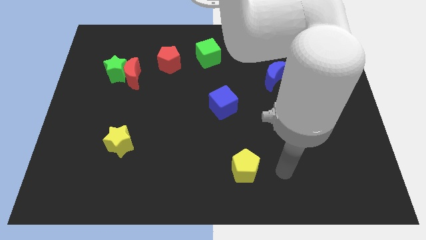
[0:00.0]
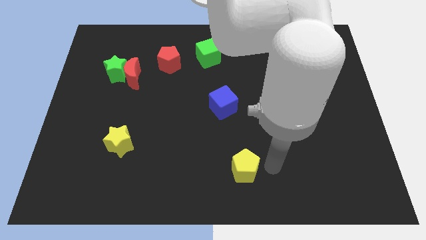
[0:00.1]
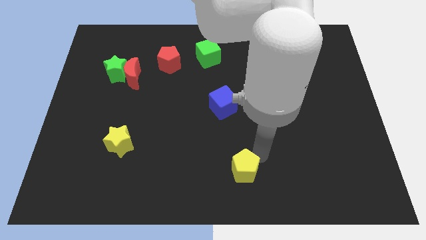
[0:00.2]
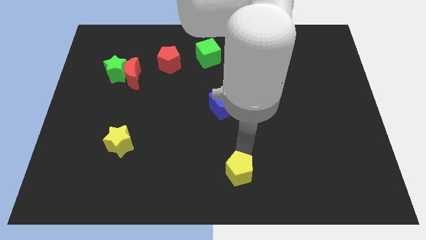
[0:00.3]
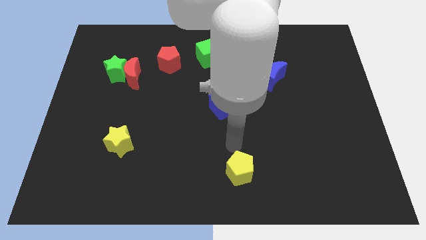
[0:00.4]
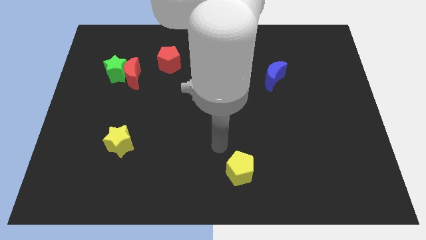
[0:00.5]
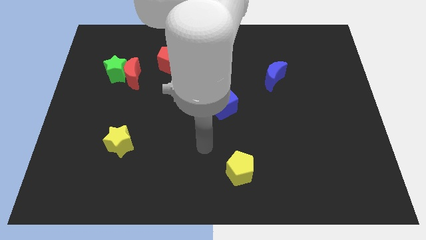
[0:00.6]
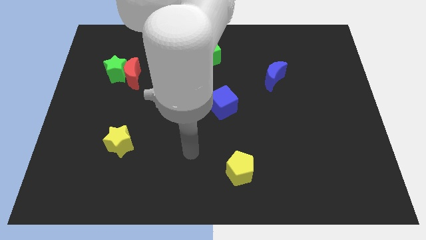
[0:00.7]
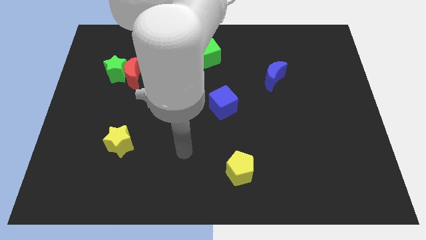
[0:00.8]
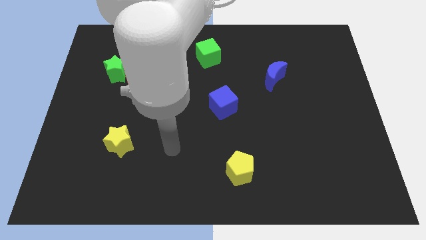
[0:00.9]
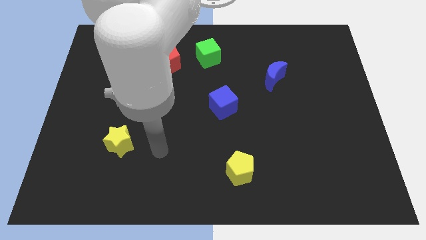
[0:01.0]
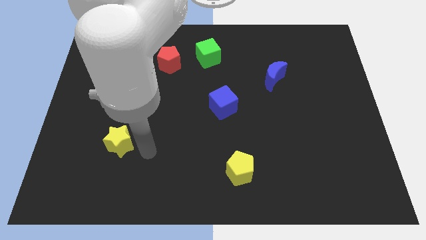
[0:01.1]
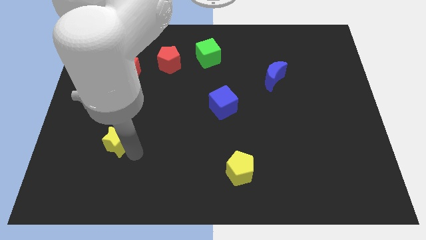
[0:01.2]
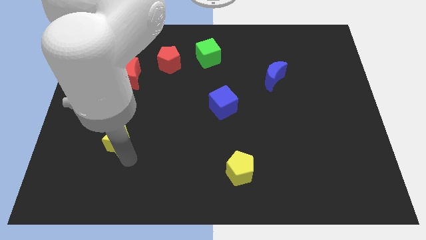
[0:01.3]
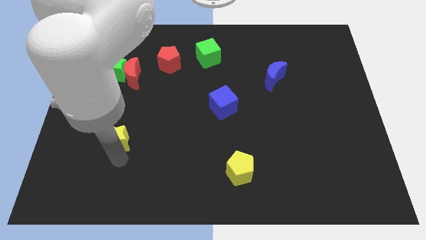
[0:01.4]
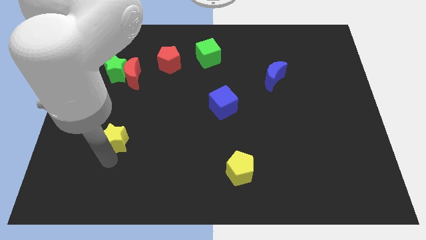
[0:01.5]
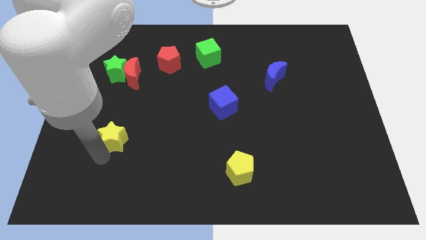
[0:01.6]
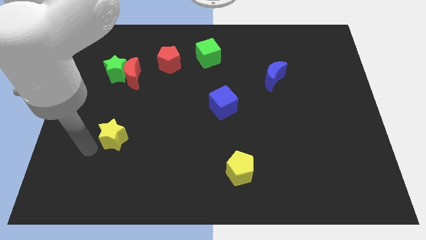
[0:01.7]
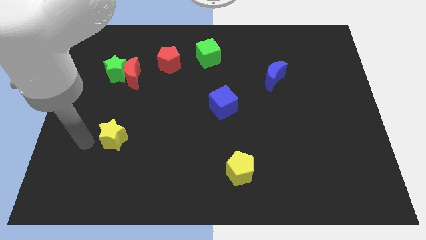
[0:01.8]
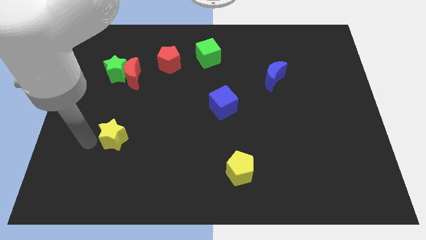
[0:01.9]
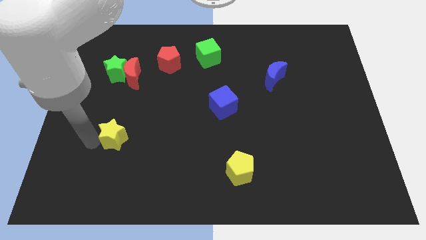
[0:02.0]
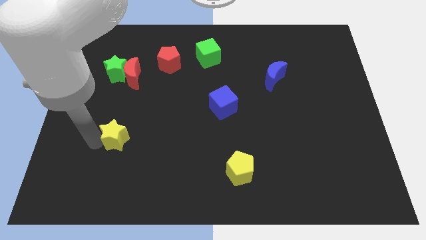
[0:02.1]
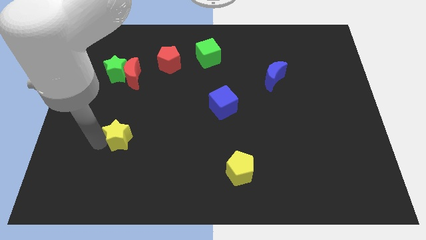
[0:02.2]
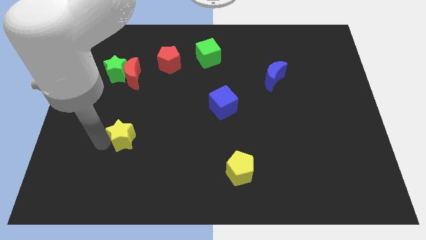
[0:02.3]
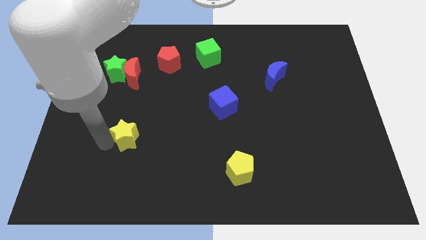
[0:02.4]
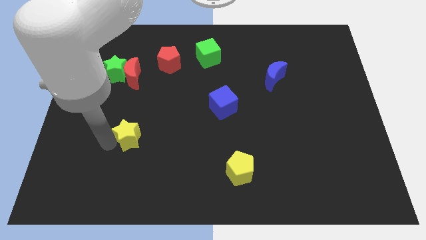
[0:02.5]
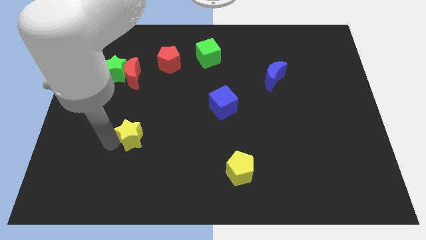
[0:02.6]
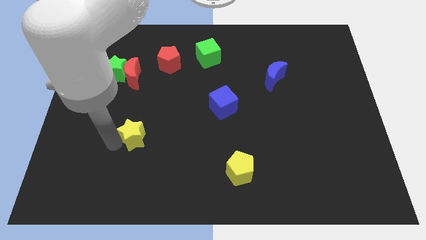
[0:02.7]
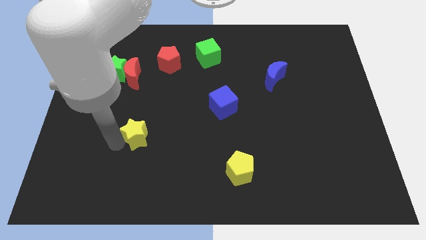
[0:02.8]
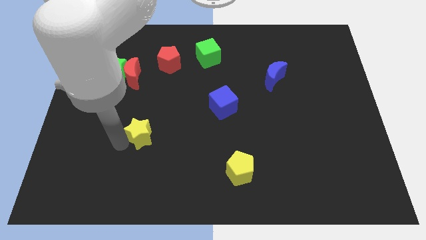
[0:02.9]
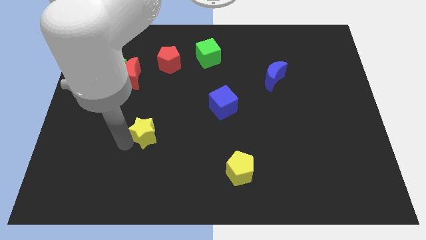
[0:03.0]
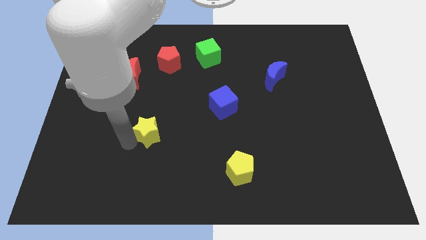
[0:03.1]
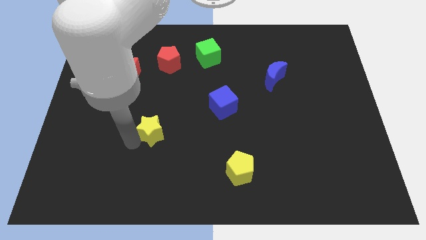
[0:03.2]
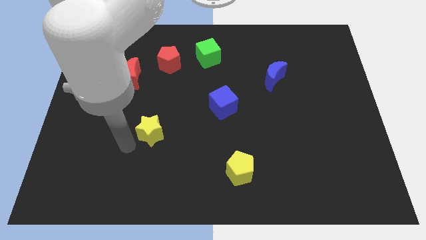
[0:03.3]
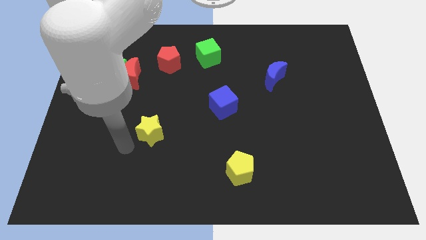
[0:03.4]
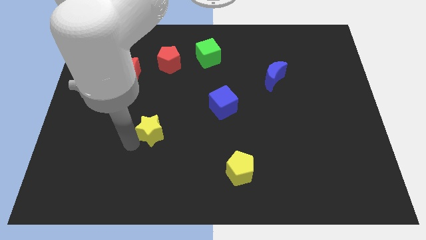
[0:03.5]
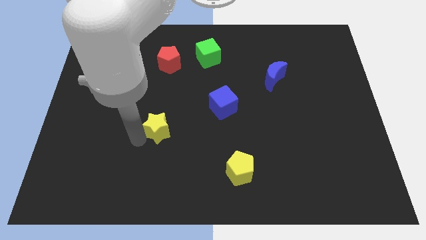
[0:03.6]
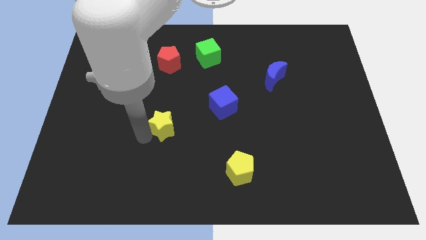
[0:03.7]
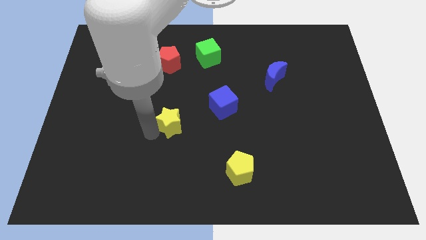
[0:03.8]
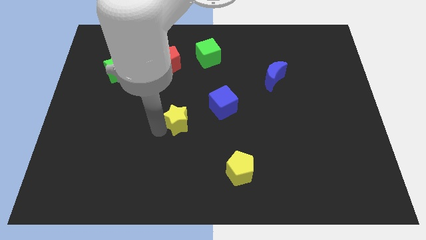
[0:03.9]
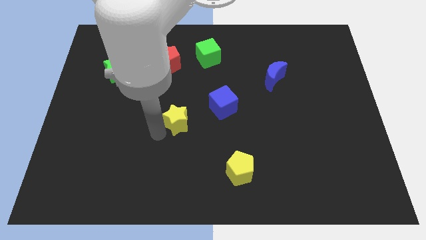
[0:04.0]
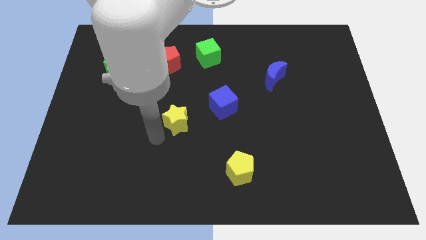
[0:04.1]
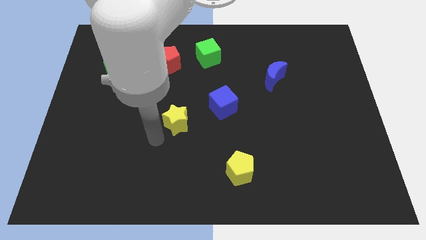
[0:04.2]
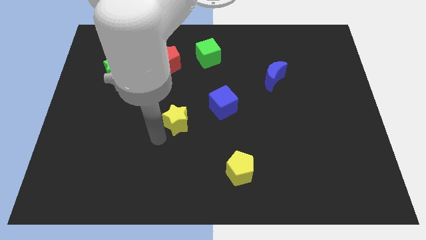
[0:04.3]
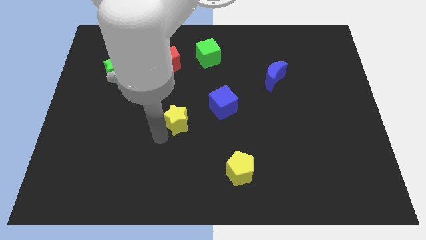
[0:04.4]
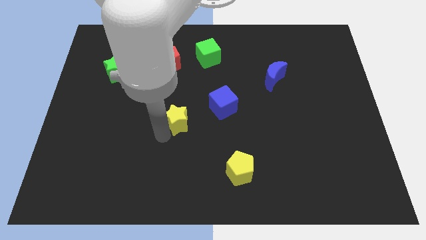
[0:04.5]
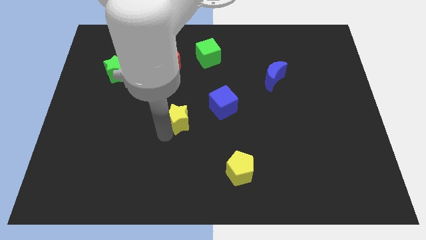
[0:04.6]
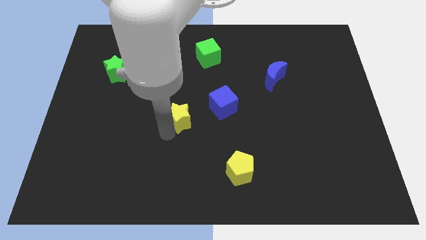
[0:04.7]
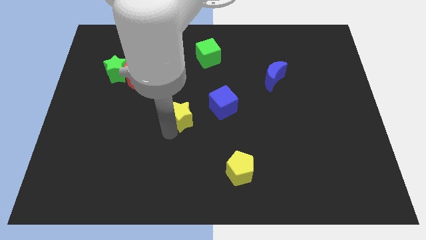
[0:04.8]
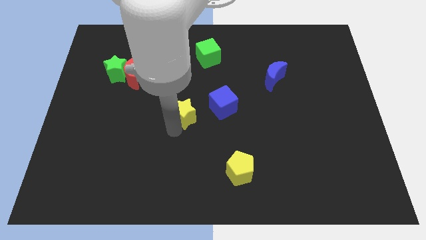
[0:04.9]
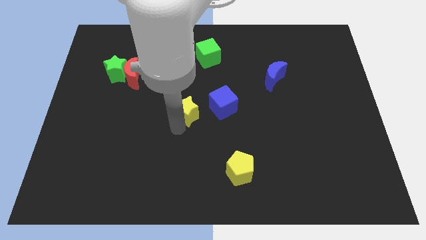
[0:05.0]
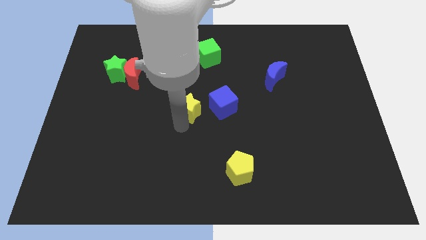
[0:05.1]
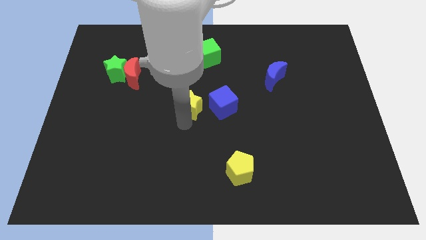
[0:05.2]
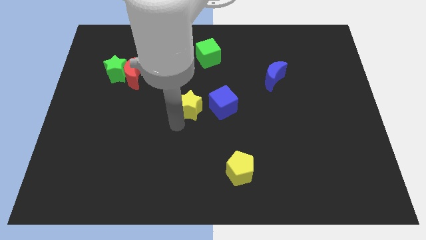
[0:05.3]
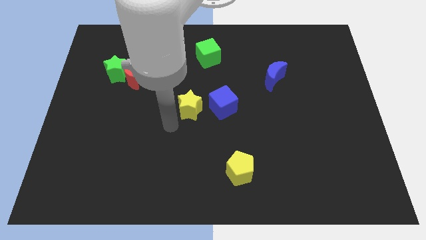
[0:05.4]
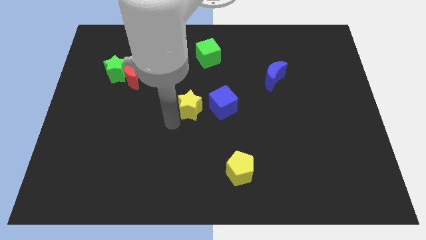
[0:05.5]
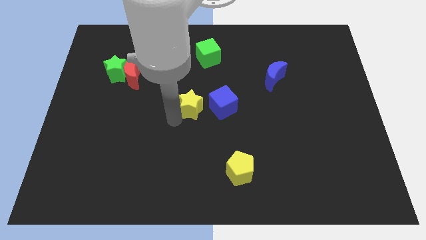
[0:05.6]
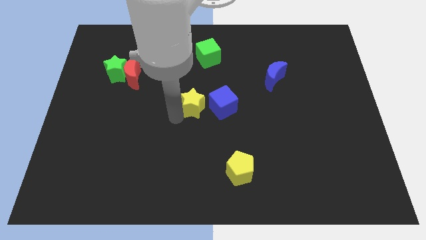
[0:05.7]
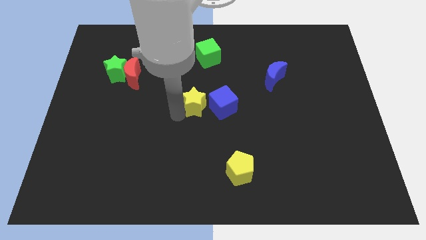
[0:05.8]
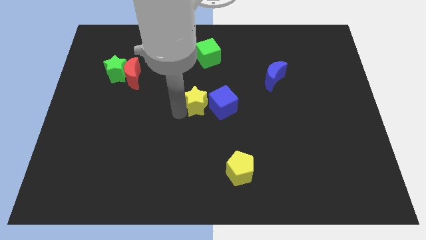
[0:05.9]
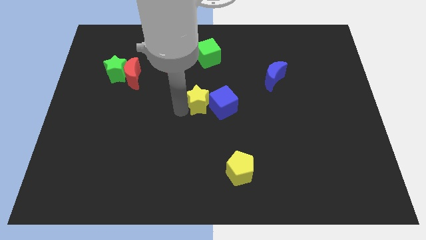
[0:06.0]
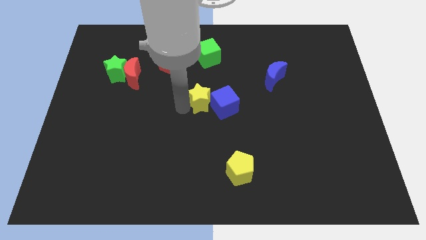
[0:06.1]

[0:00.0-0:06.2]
slide the yellow star up and right

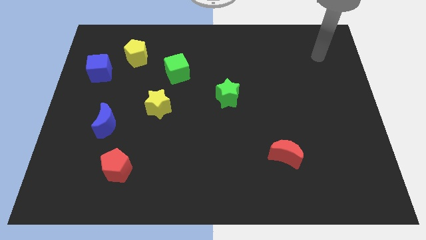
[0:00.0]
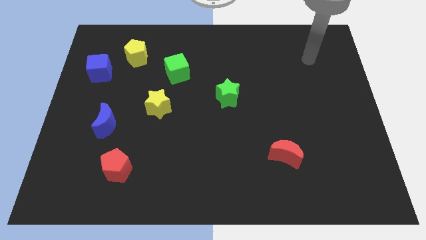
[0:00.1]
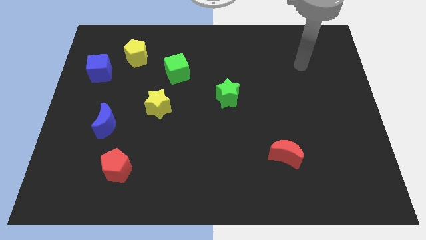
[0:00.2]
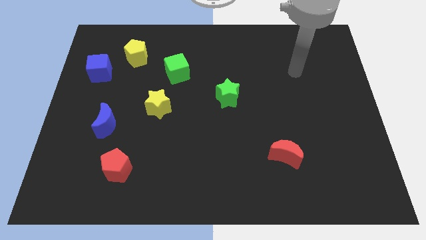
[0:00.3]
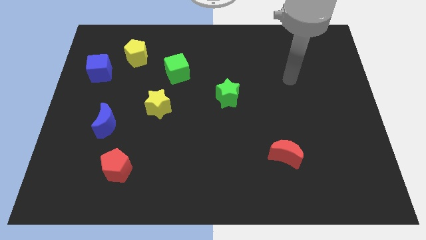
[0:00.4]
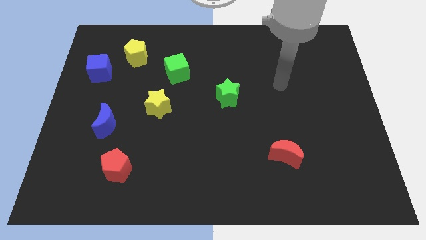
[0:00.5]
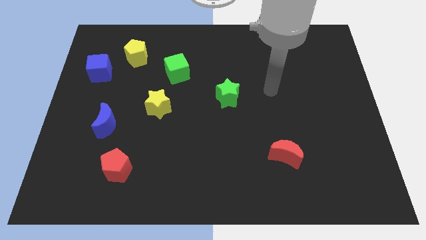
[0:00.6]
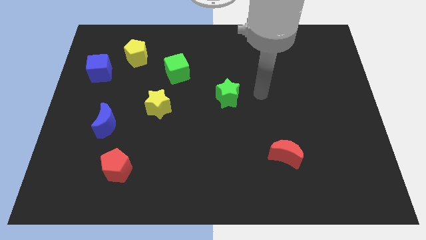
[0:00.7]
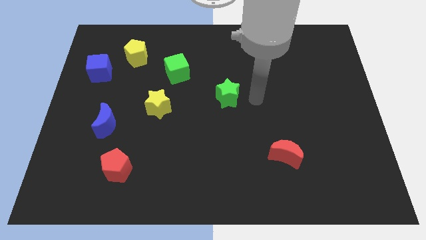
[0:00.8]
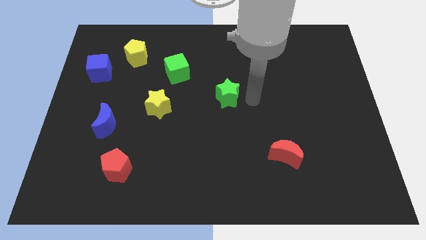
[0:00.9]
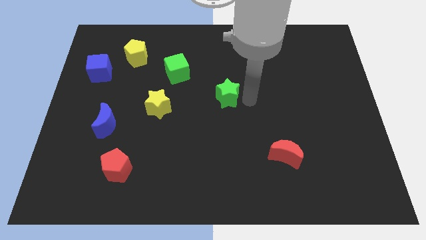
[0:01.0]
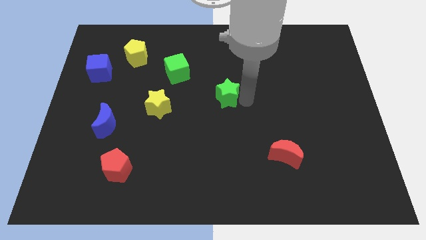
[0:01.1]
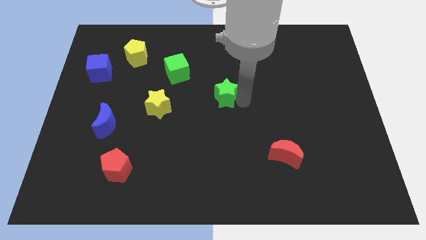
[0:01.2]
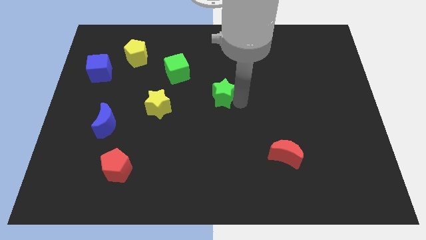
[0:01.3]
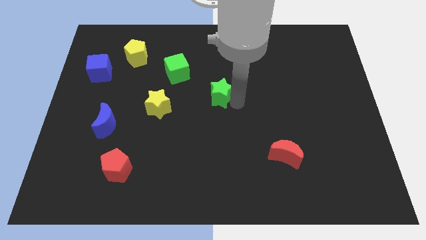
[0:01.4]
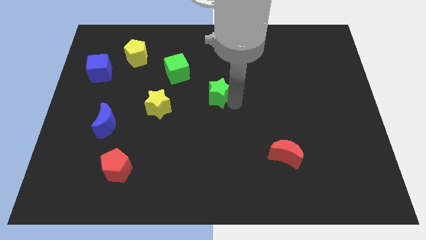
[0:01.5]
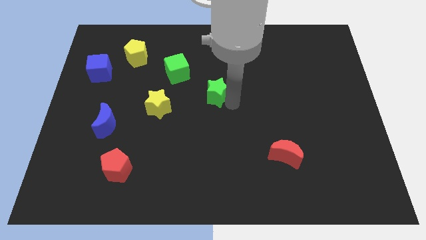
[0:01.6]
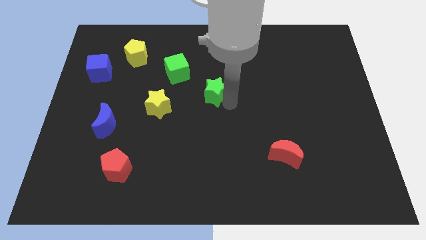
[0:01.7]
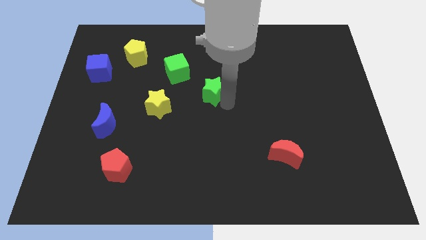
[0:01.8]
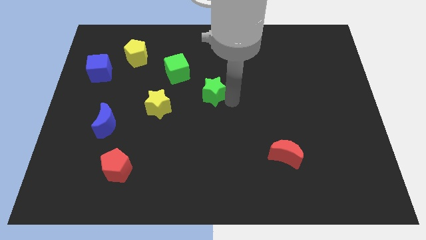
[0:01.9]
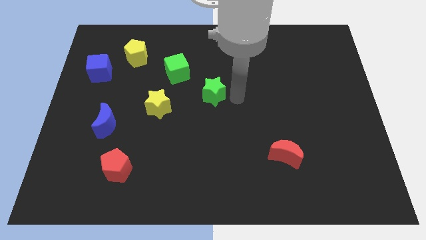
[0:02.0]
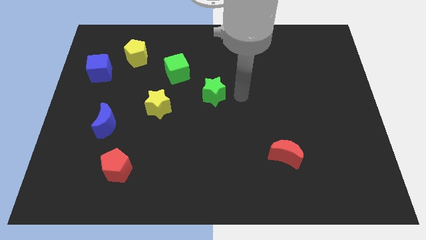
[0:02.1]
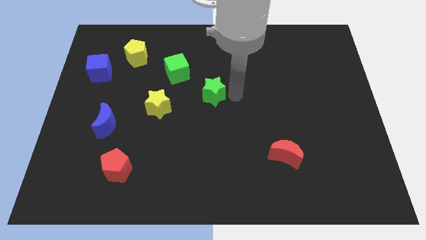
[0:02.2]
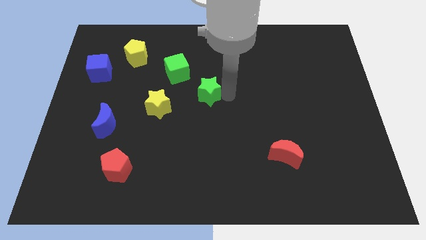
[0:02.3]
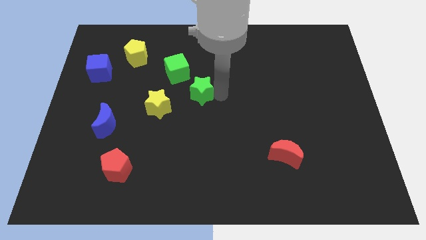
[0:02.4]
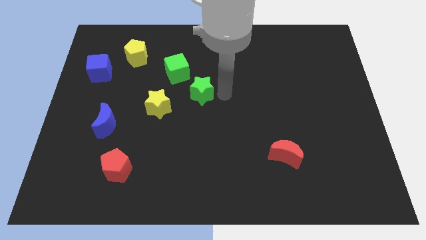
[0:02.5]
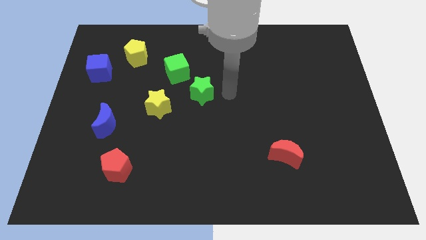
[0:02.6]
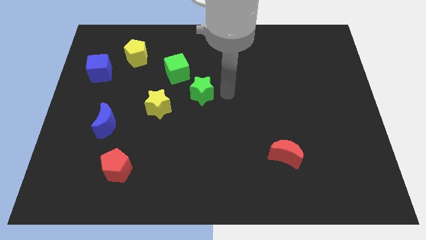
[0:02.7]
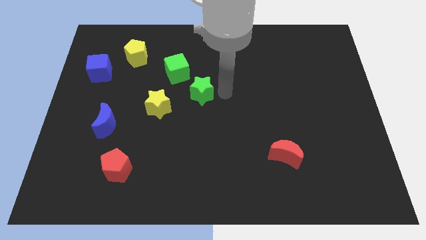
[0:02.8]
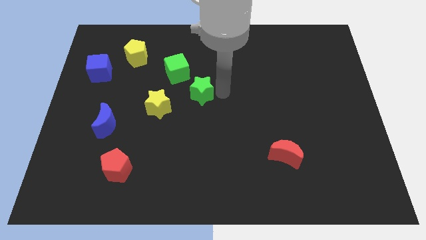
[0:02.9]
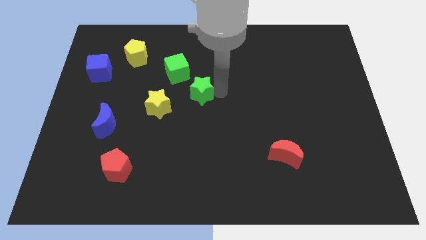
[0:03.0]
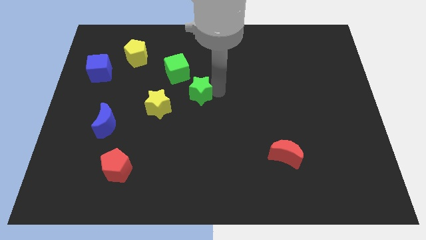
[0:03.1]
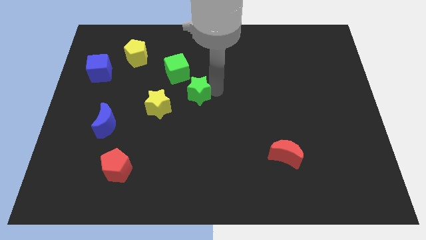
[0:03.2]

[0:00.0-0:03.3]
push the green star left somewhat
